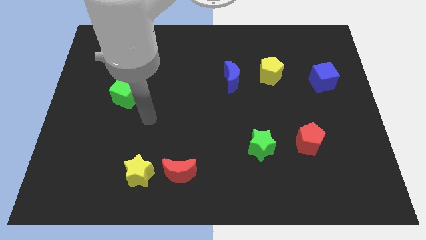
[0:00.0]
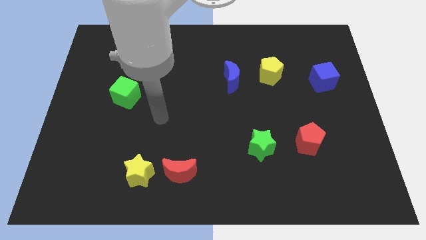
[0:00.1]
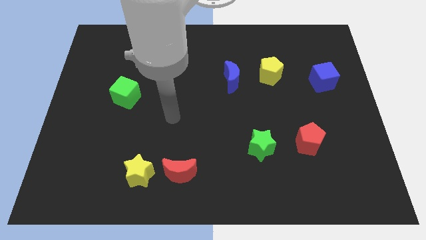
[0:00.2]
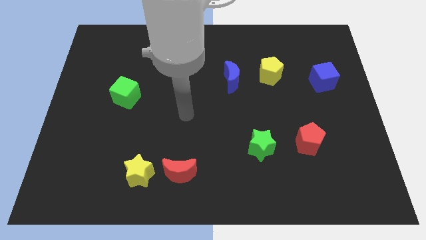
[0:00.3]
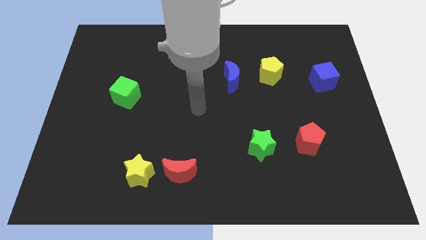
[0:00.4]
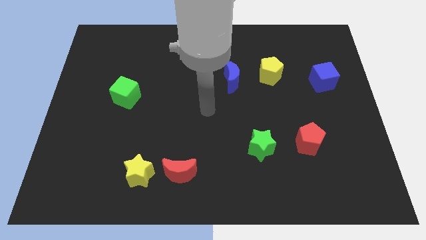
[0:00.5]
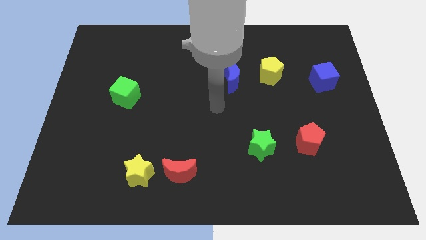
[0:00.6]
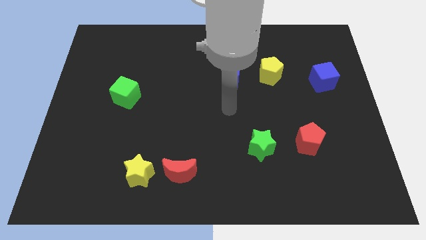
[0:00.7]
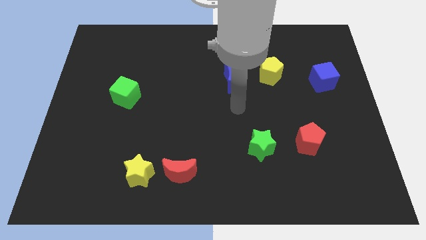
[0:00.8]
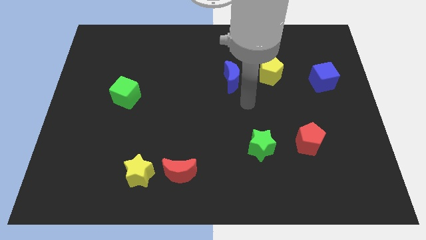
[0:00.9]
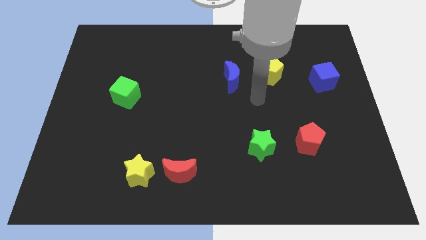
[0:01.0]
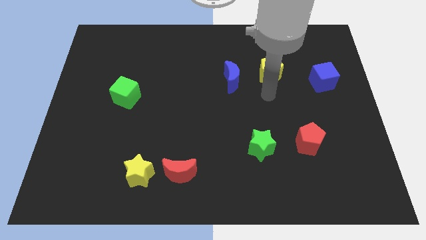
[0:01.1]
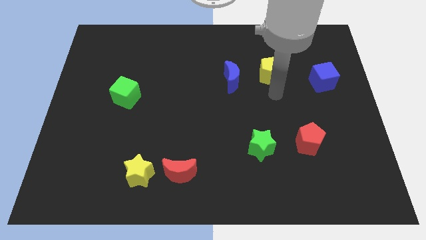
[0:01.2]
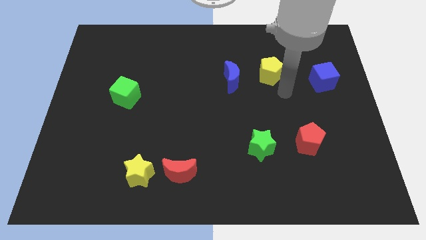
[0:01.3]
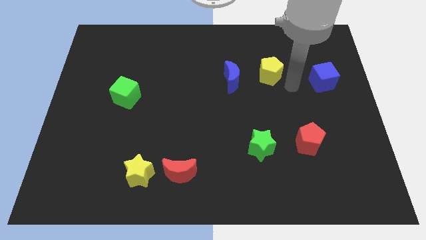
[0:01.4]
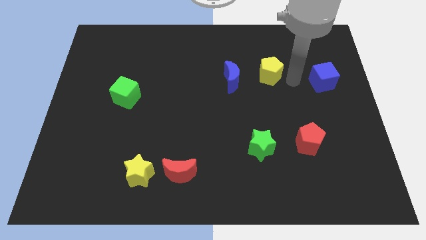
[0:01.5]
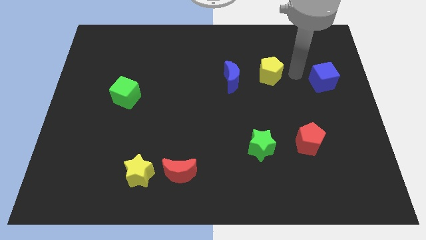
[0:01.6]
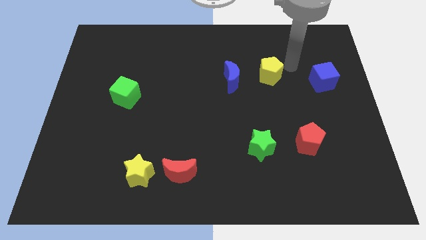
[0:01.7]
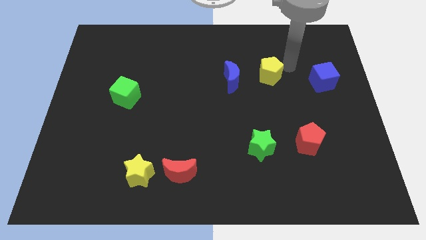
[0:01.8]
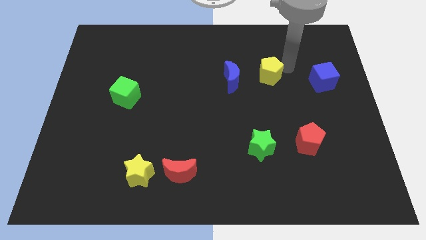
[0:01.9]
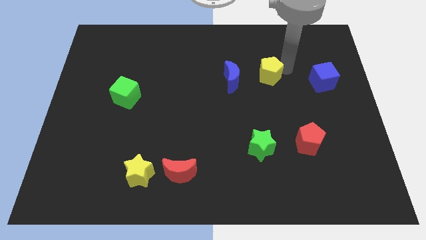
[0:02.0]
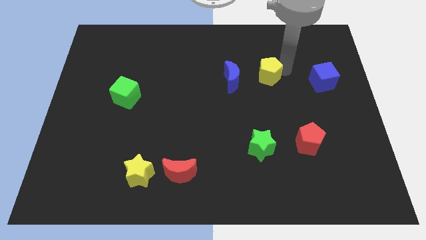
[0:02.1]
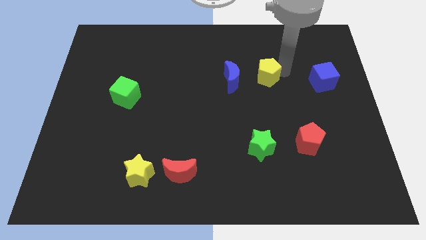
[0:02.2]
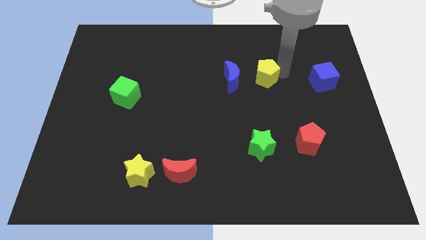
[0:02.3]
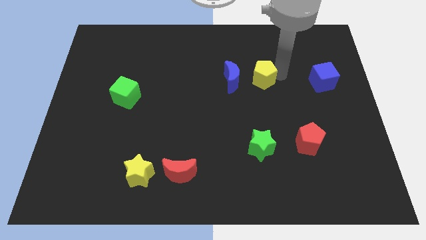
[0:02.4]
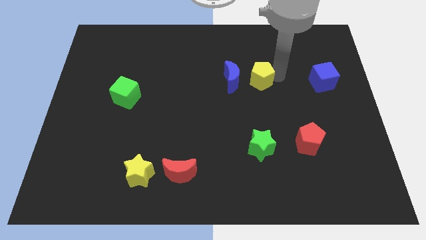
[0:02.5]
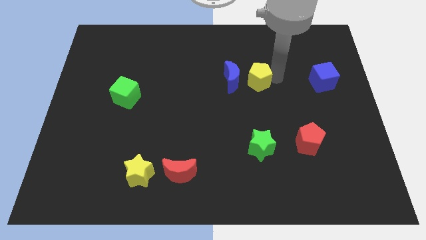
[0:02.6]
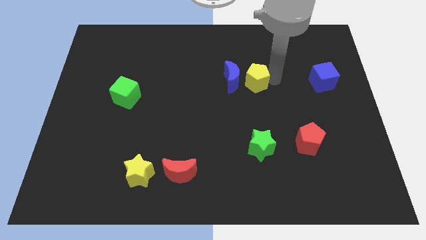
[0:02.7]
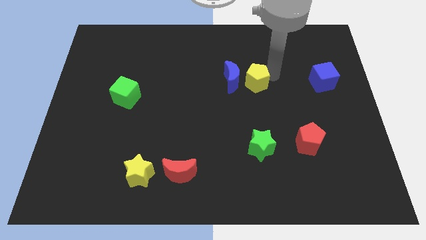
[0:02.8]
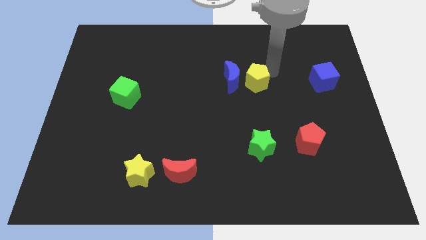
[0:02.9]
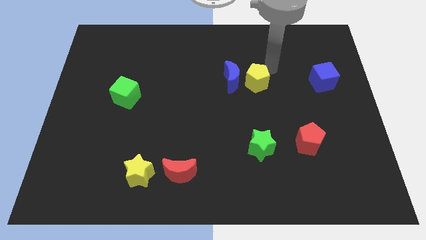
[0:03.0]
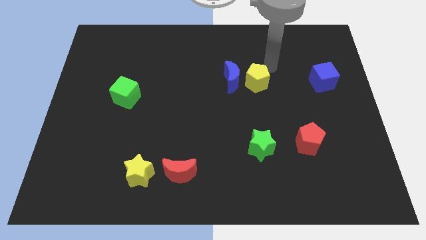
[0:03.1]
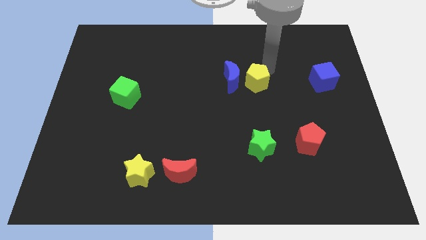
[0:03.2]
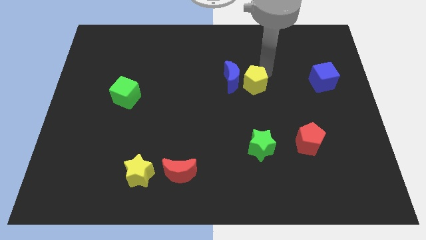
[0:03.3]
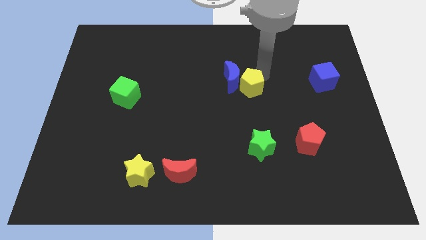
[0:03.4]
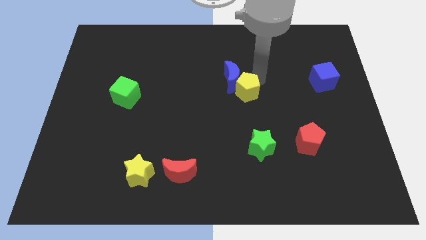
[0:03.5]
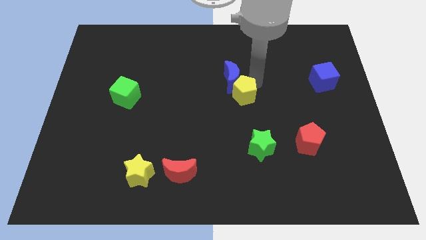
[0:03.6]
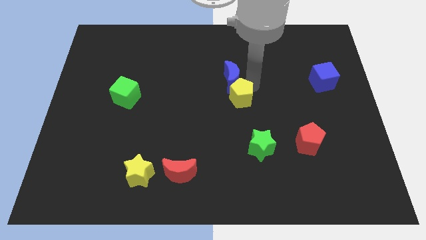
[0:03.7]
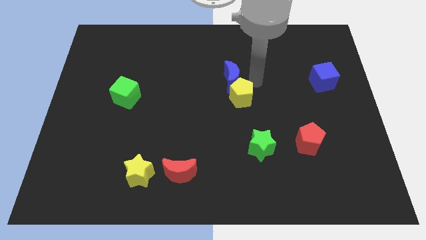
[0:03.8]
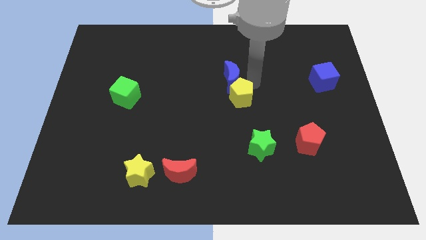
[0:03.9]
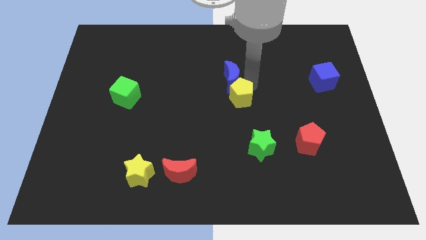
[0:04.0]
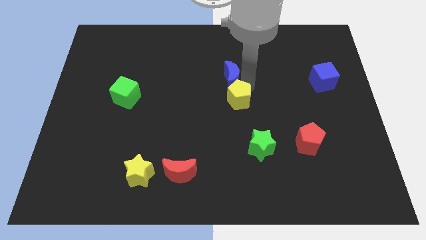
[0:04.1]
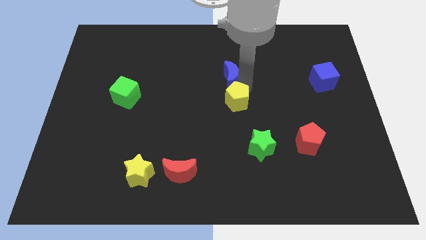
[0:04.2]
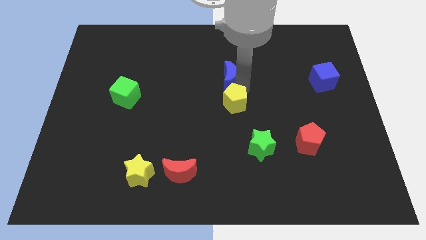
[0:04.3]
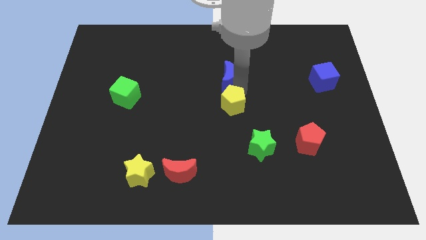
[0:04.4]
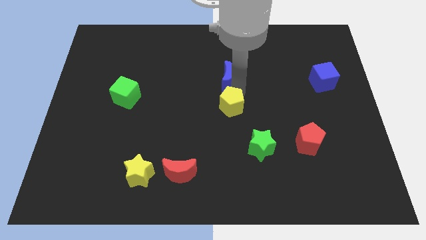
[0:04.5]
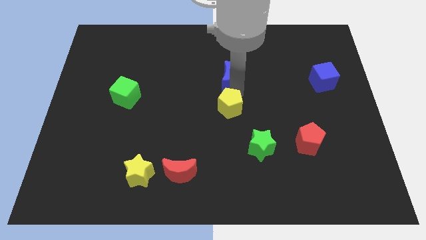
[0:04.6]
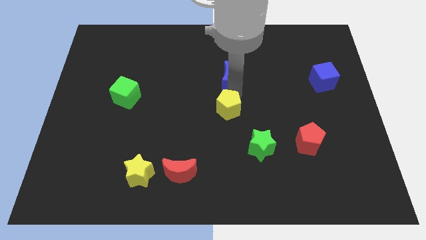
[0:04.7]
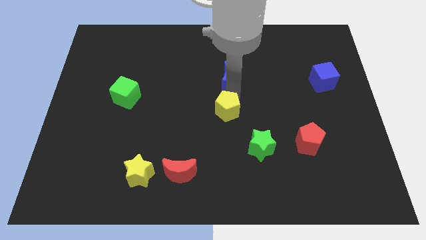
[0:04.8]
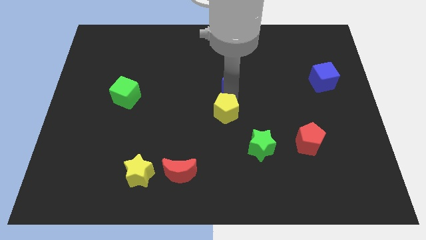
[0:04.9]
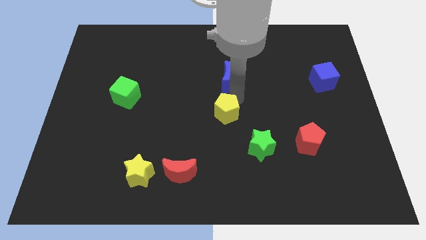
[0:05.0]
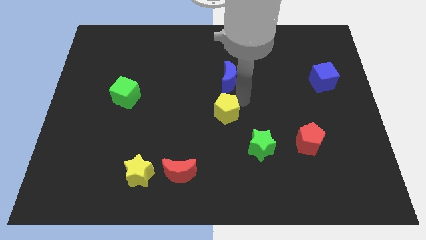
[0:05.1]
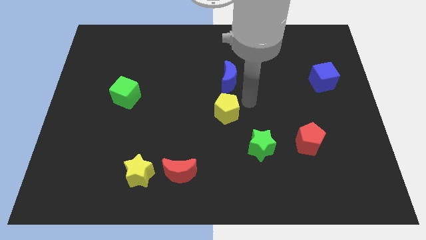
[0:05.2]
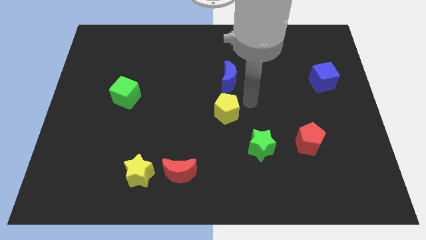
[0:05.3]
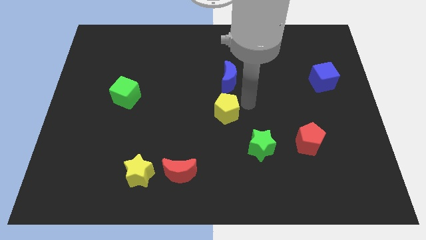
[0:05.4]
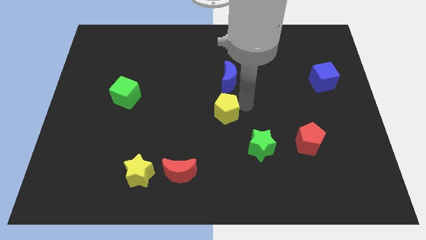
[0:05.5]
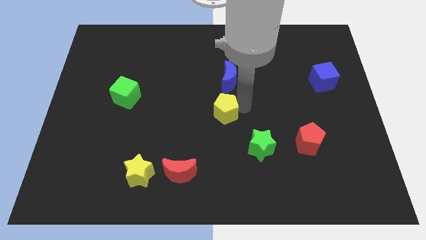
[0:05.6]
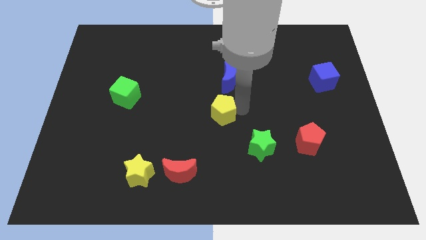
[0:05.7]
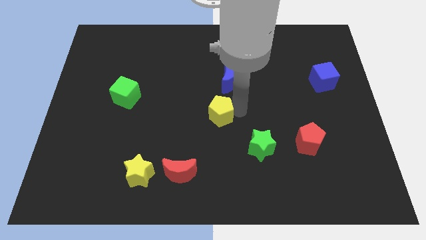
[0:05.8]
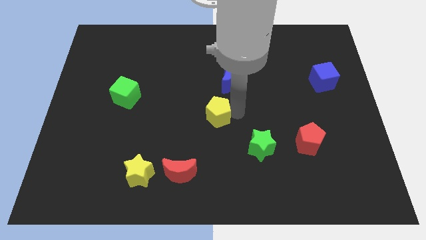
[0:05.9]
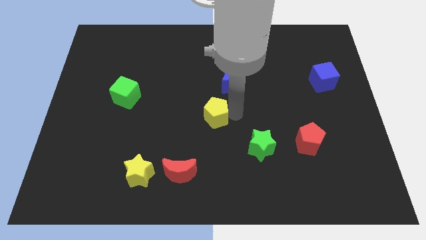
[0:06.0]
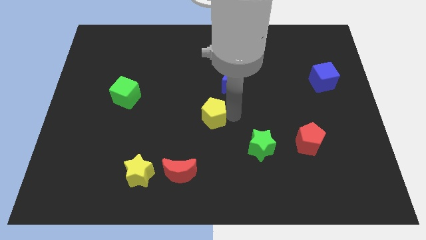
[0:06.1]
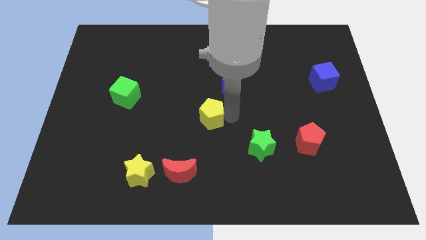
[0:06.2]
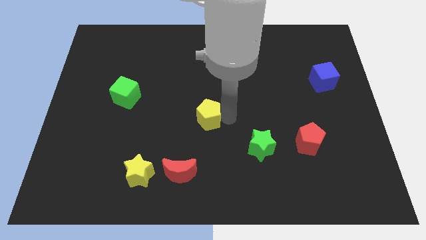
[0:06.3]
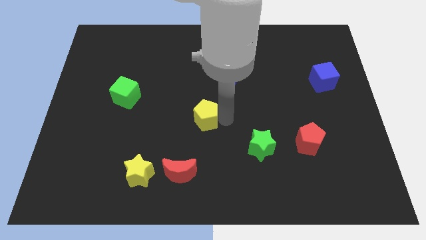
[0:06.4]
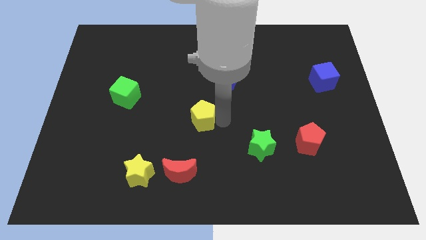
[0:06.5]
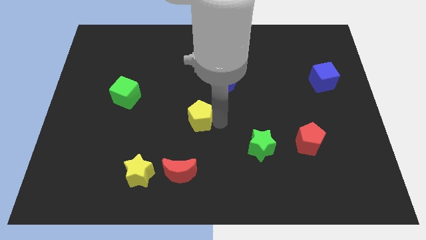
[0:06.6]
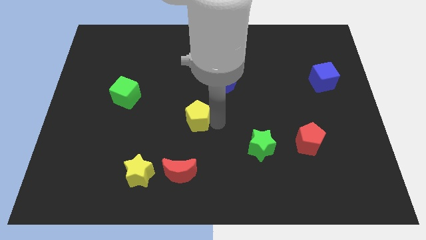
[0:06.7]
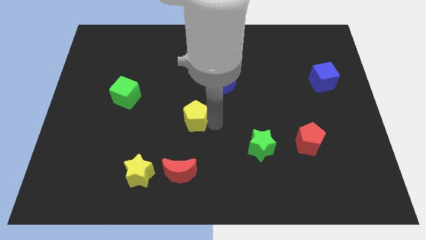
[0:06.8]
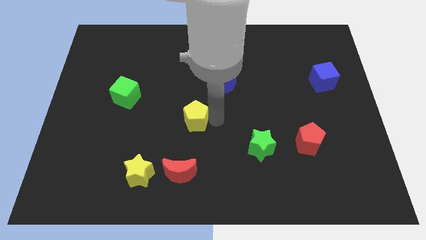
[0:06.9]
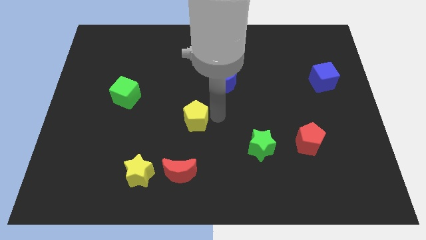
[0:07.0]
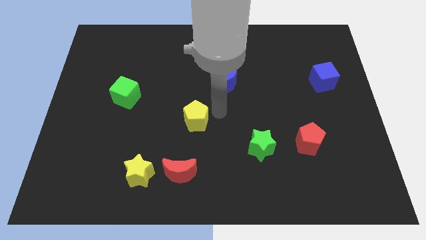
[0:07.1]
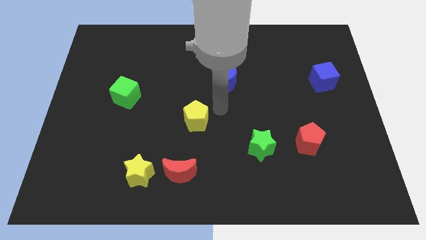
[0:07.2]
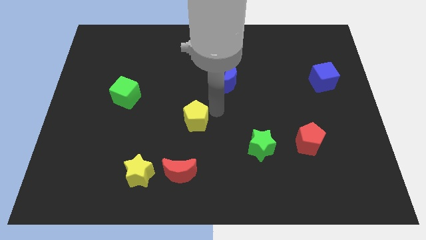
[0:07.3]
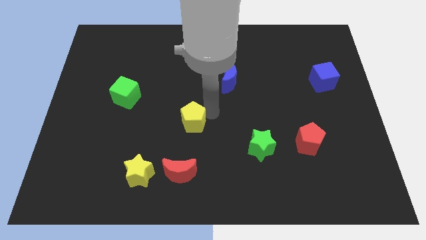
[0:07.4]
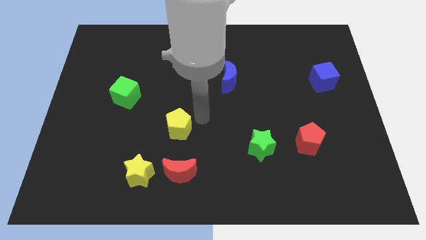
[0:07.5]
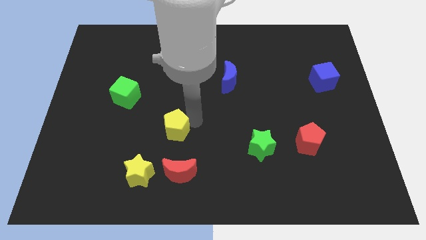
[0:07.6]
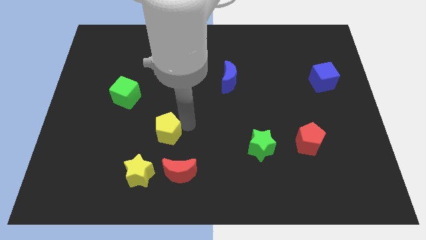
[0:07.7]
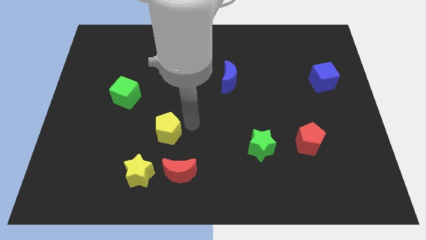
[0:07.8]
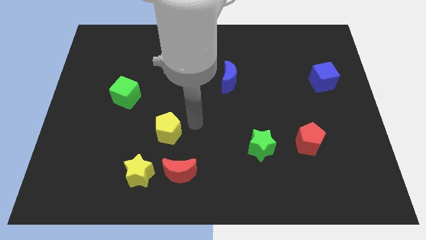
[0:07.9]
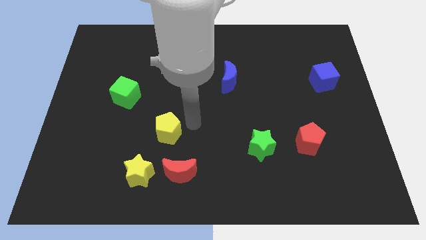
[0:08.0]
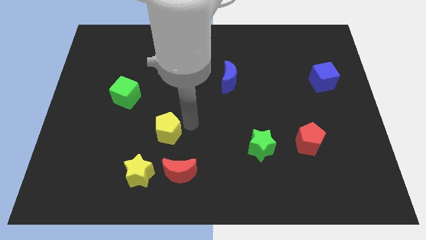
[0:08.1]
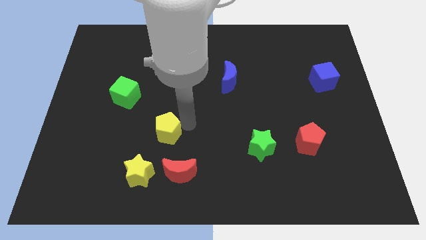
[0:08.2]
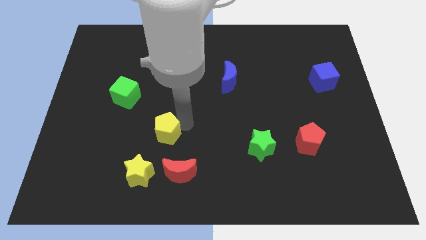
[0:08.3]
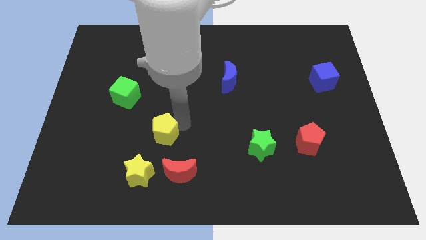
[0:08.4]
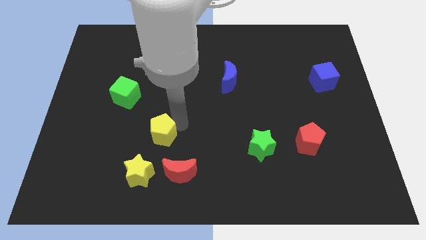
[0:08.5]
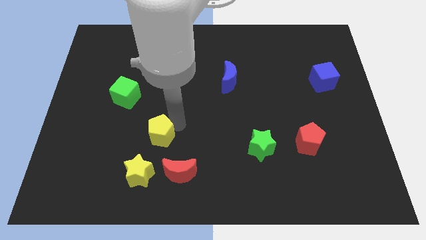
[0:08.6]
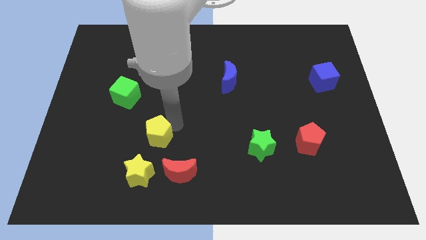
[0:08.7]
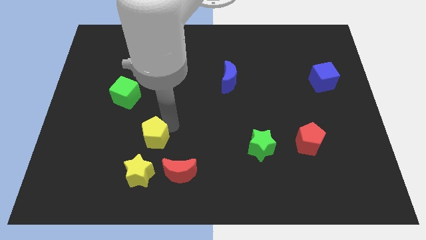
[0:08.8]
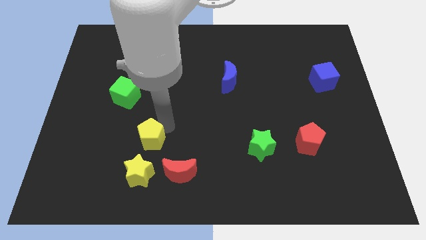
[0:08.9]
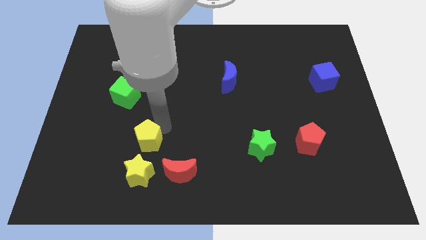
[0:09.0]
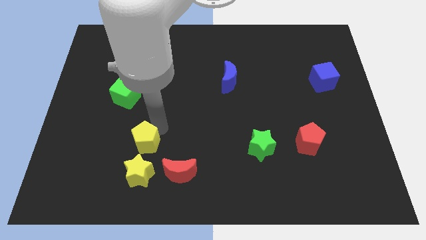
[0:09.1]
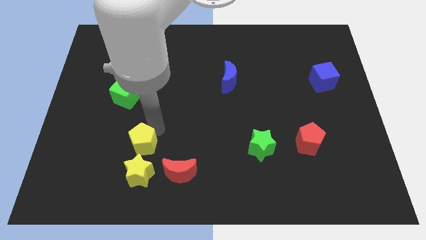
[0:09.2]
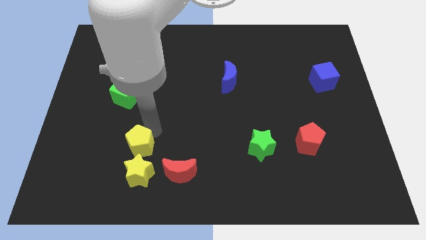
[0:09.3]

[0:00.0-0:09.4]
push the yellow pentagon to the top left side of the yellow star
